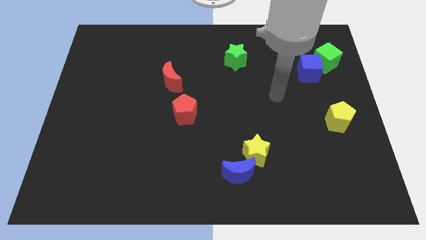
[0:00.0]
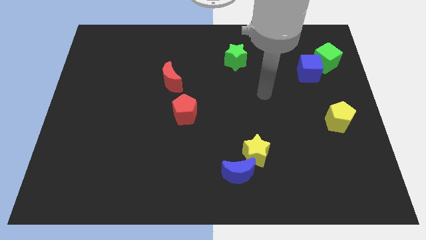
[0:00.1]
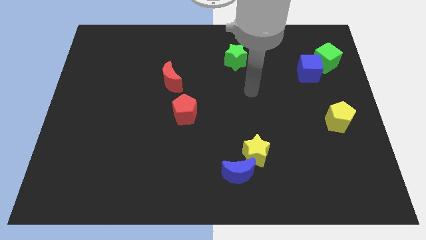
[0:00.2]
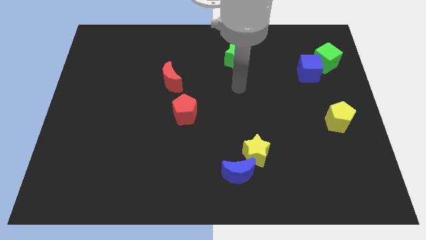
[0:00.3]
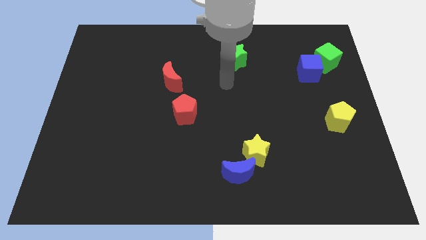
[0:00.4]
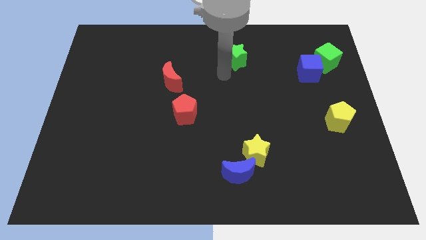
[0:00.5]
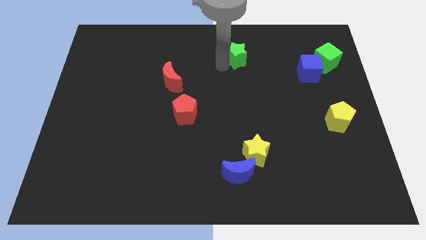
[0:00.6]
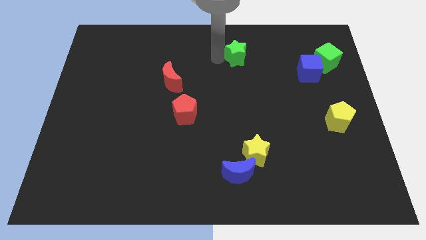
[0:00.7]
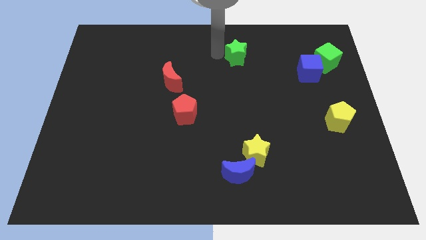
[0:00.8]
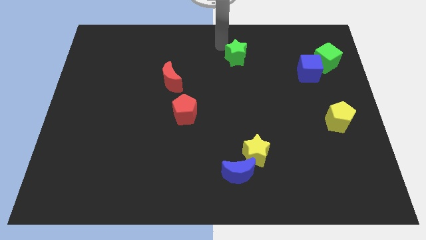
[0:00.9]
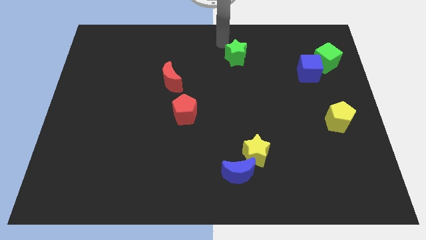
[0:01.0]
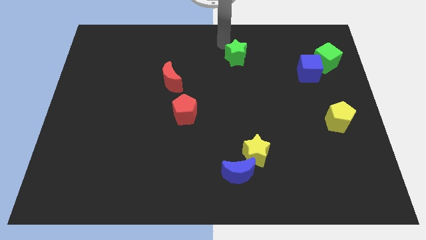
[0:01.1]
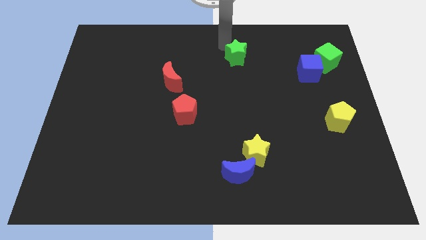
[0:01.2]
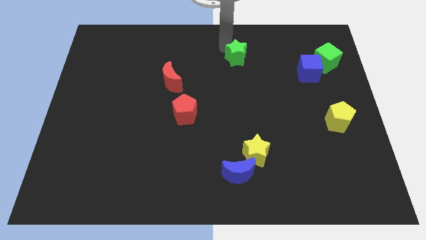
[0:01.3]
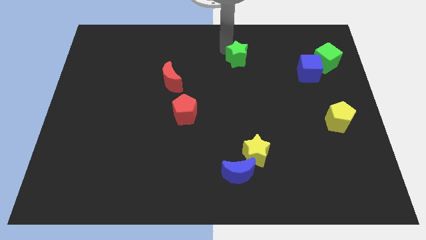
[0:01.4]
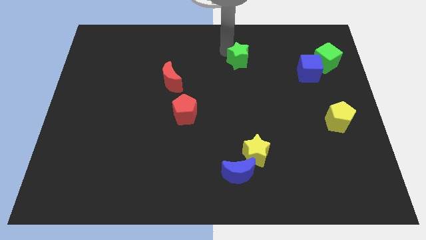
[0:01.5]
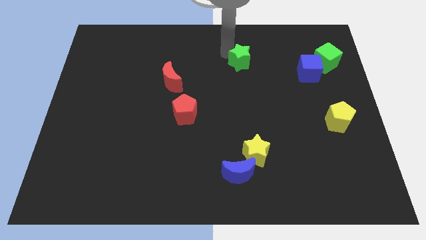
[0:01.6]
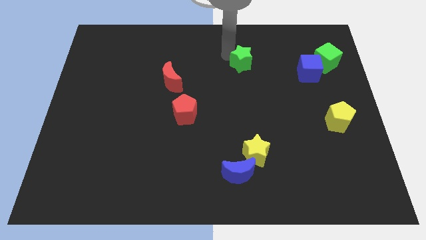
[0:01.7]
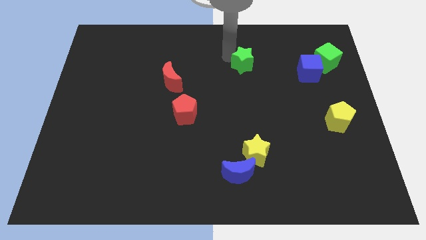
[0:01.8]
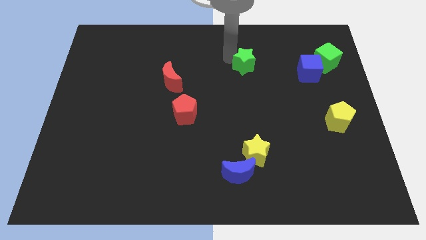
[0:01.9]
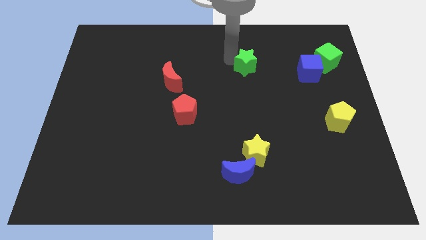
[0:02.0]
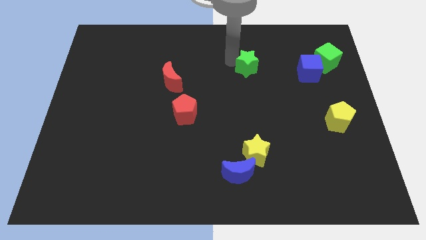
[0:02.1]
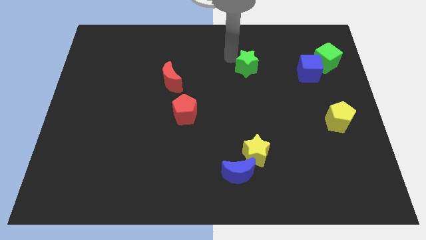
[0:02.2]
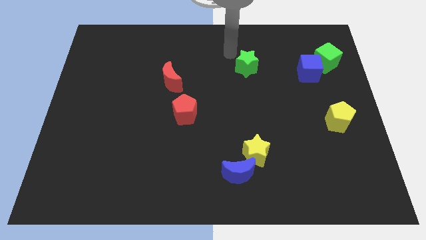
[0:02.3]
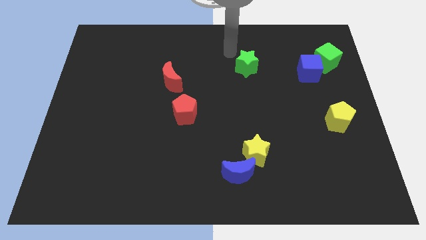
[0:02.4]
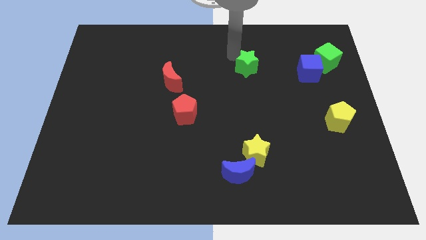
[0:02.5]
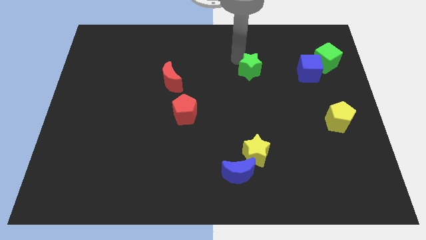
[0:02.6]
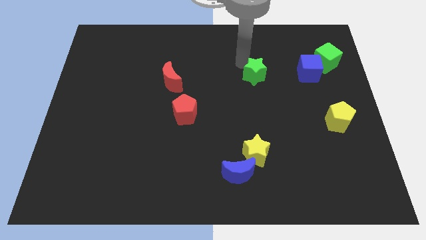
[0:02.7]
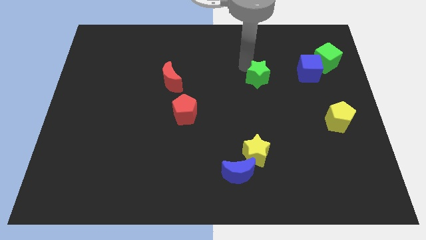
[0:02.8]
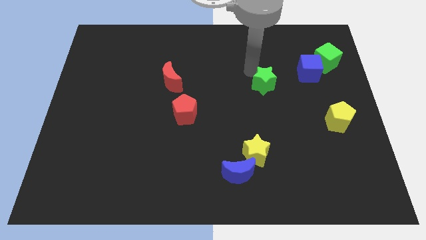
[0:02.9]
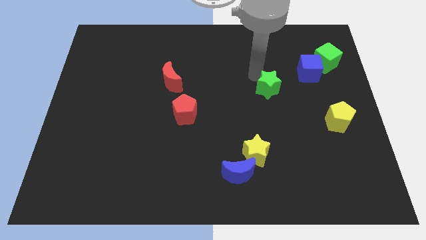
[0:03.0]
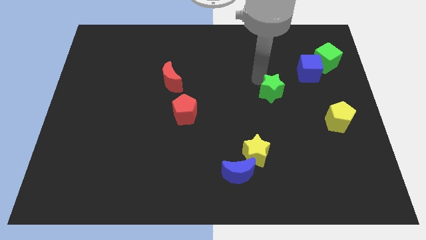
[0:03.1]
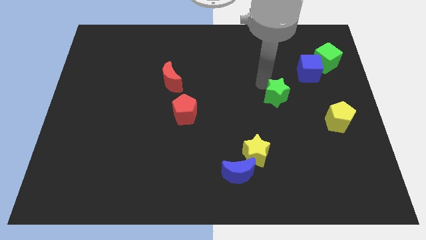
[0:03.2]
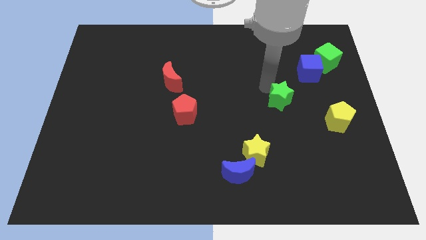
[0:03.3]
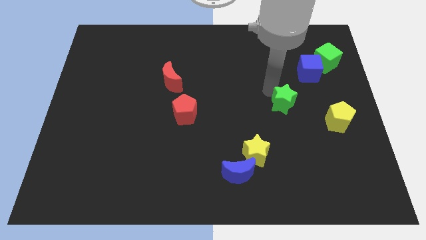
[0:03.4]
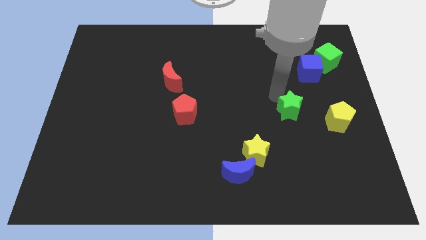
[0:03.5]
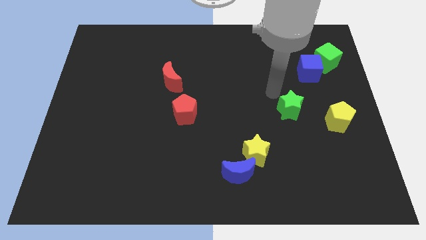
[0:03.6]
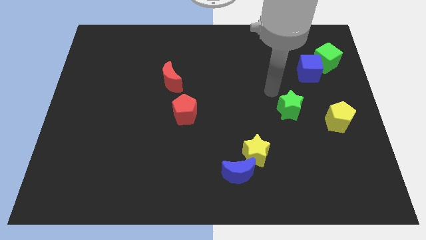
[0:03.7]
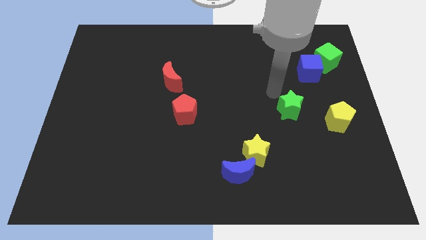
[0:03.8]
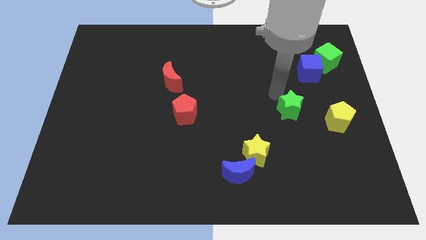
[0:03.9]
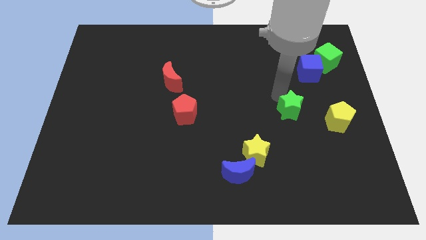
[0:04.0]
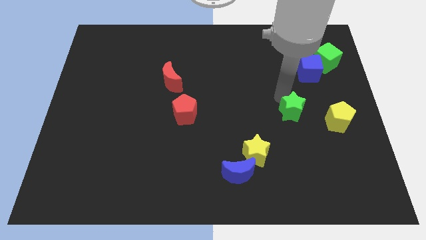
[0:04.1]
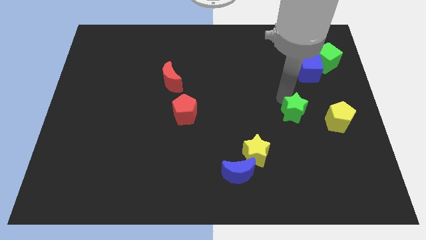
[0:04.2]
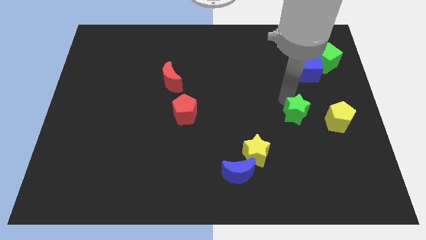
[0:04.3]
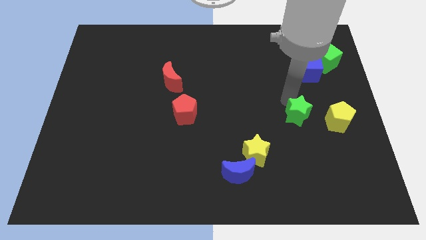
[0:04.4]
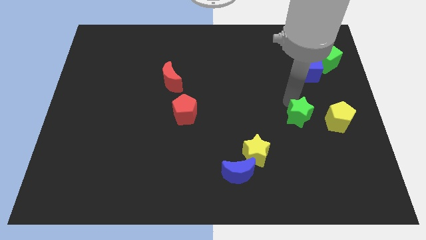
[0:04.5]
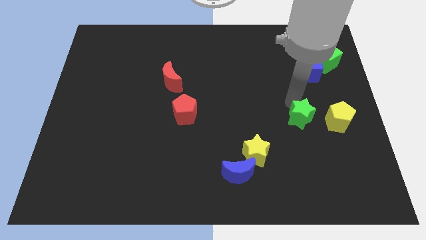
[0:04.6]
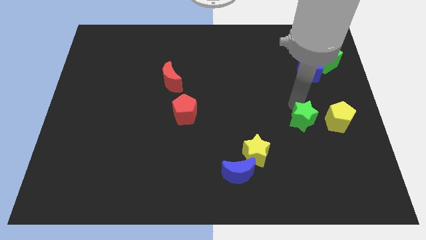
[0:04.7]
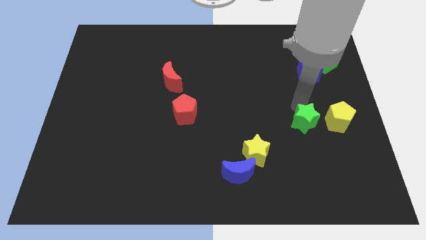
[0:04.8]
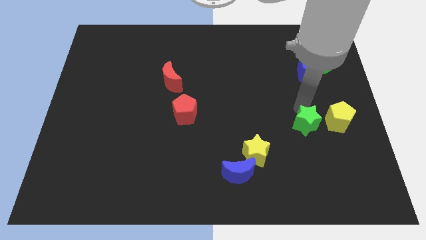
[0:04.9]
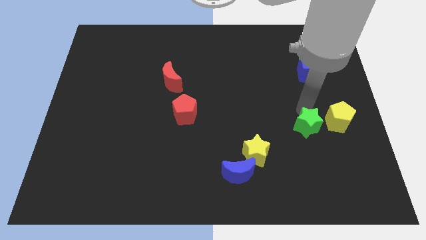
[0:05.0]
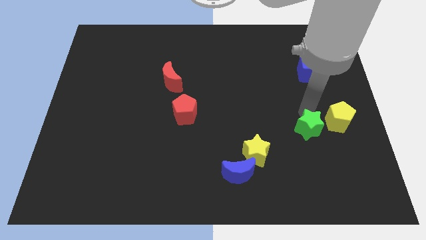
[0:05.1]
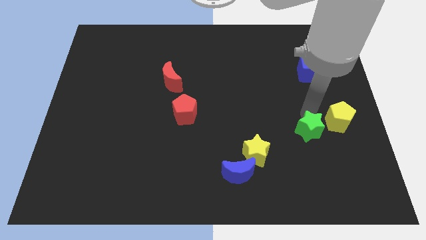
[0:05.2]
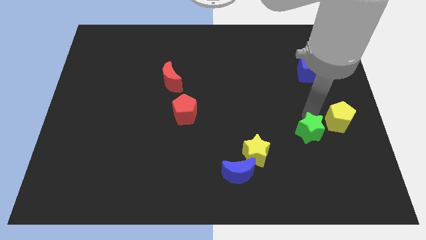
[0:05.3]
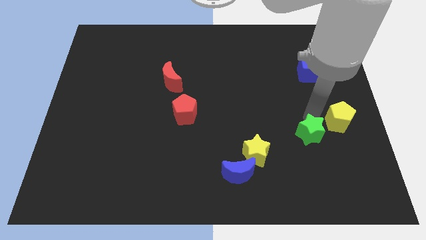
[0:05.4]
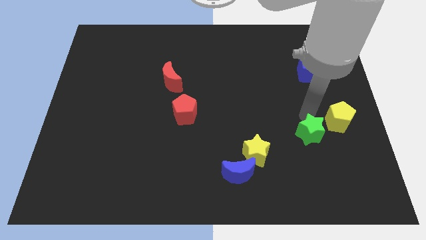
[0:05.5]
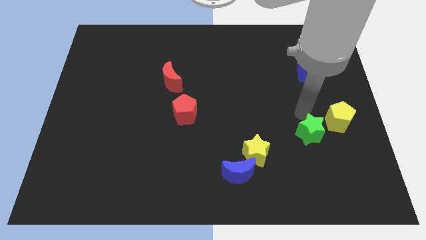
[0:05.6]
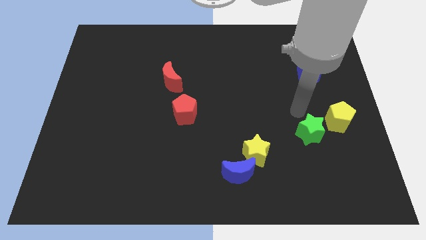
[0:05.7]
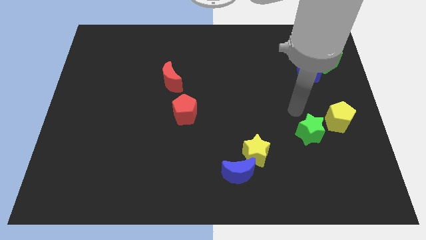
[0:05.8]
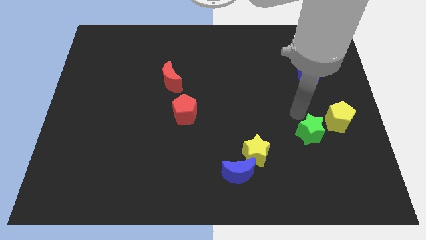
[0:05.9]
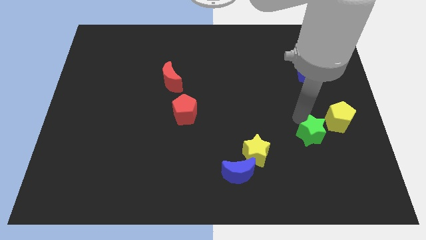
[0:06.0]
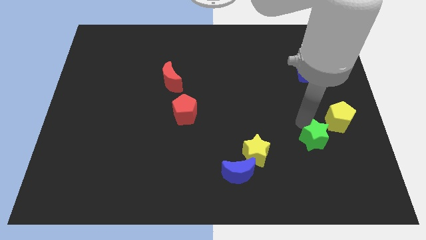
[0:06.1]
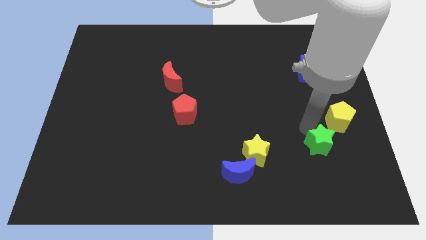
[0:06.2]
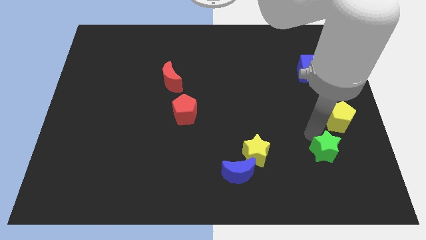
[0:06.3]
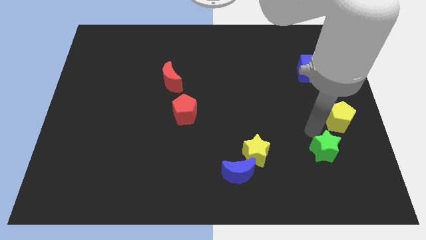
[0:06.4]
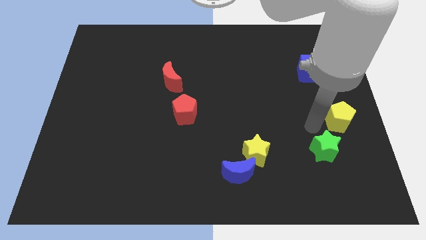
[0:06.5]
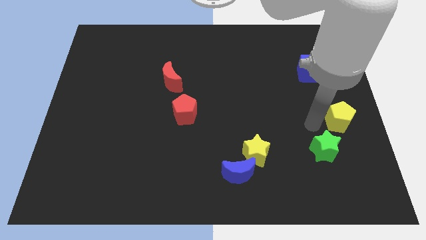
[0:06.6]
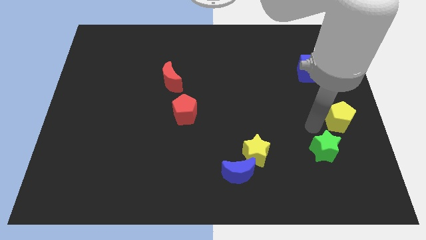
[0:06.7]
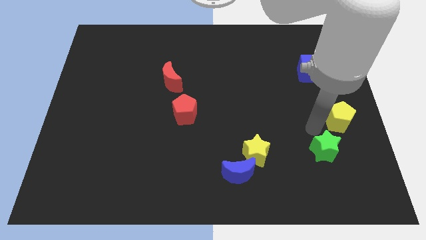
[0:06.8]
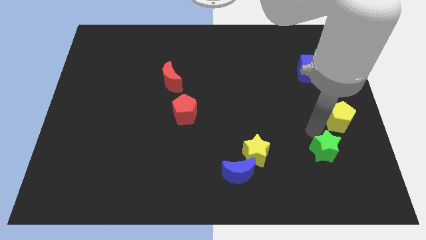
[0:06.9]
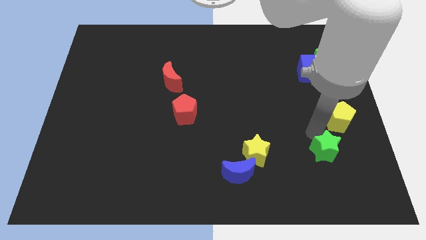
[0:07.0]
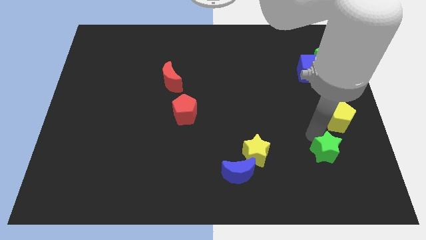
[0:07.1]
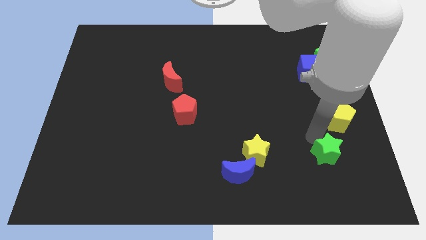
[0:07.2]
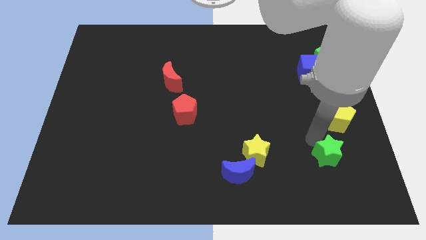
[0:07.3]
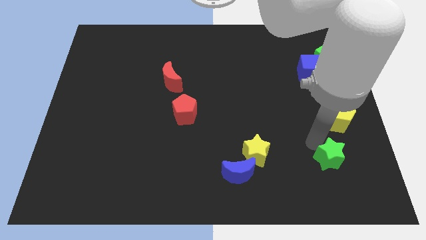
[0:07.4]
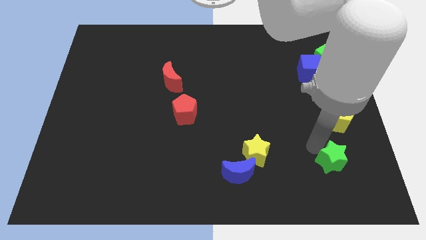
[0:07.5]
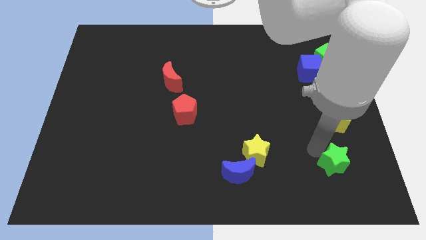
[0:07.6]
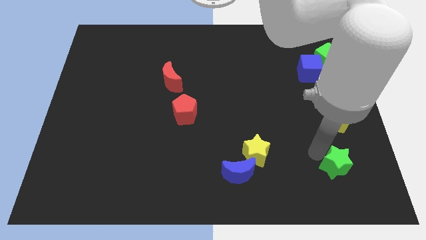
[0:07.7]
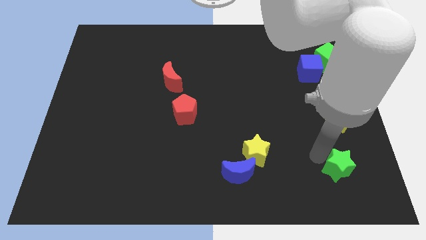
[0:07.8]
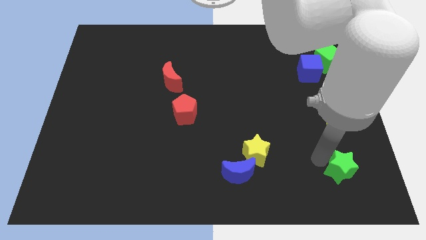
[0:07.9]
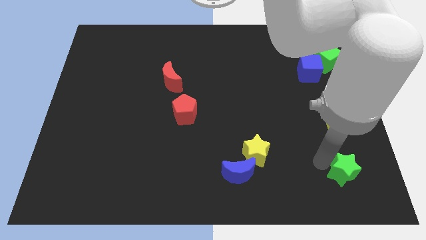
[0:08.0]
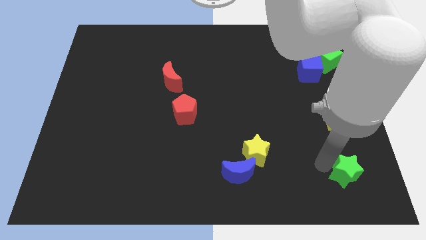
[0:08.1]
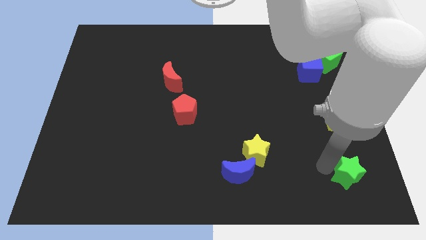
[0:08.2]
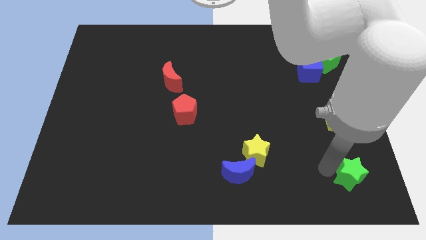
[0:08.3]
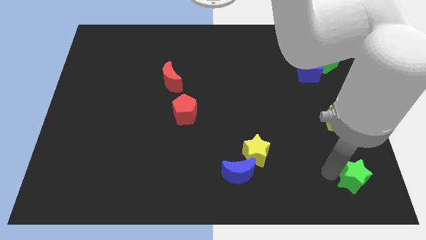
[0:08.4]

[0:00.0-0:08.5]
push the green star to the bottom right corner
